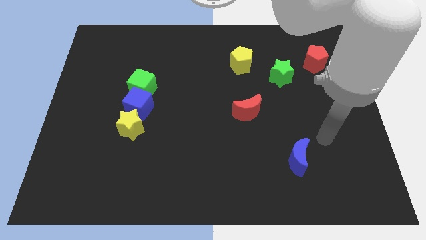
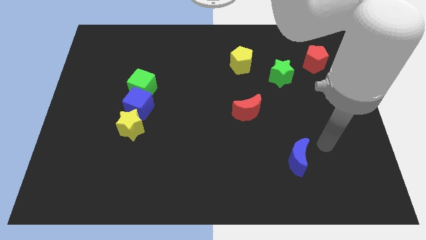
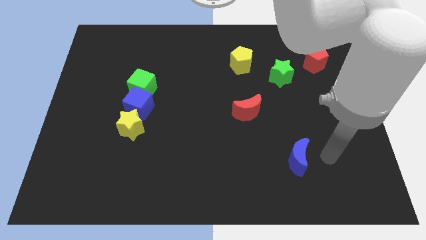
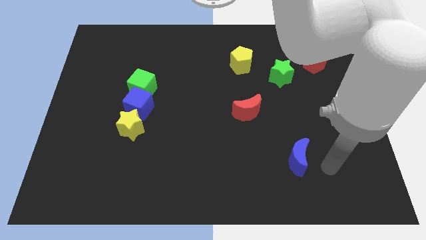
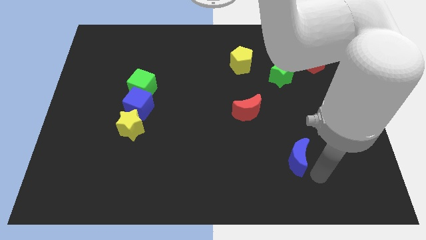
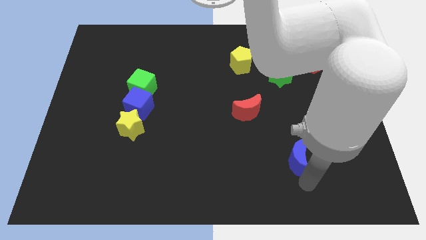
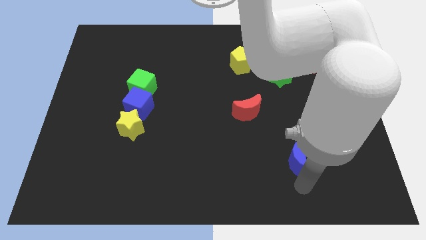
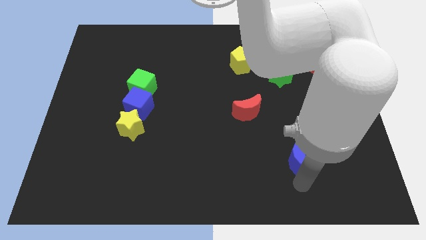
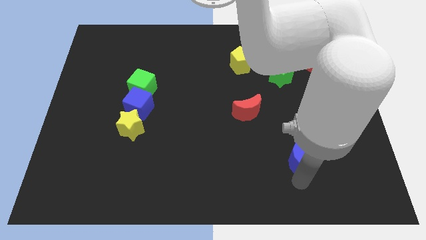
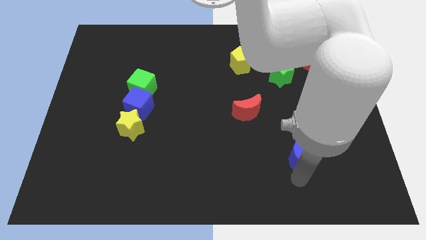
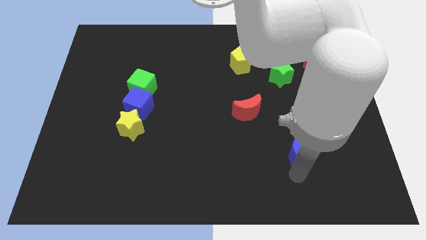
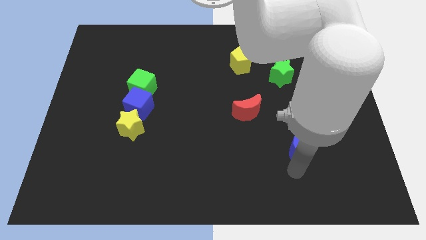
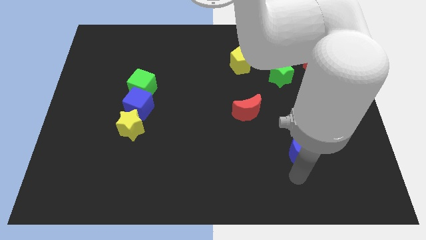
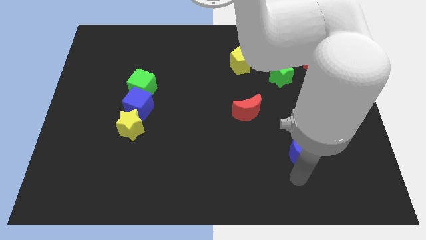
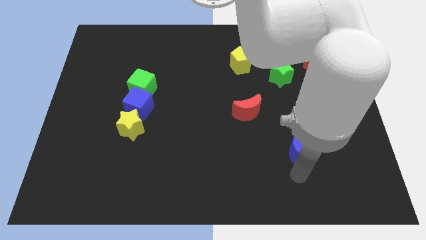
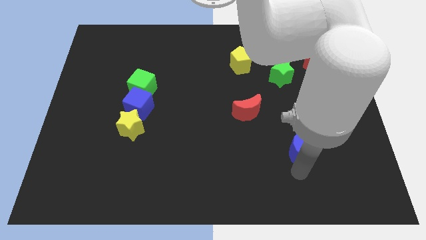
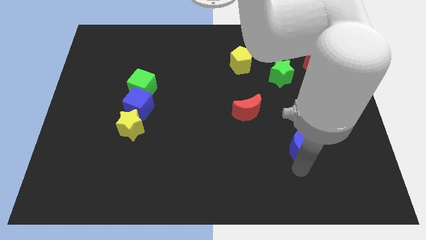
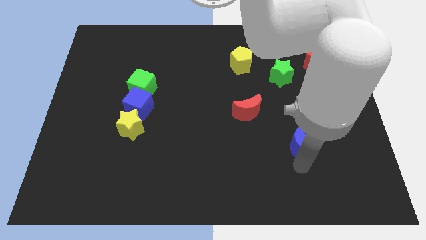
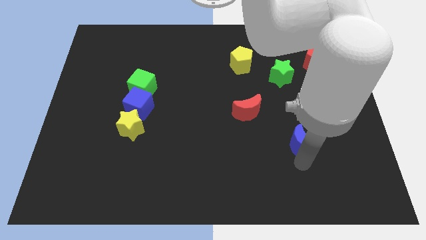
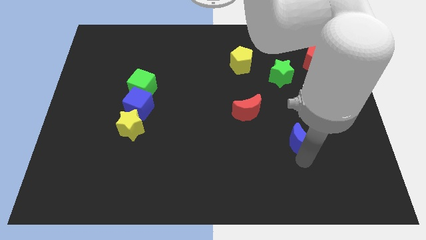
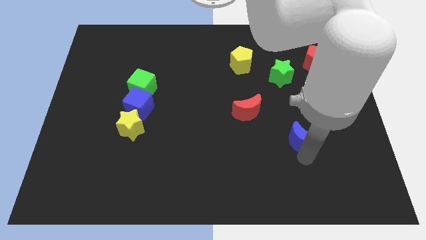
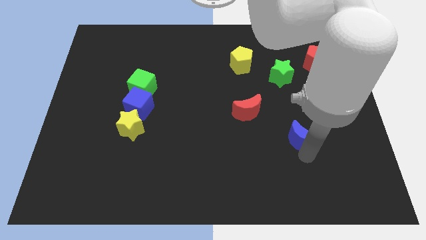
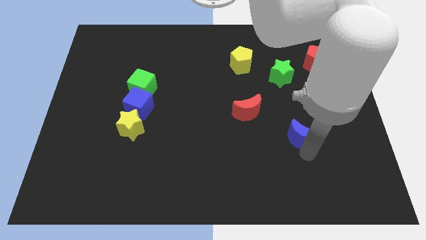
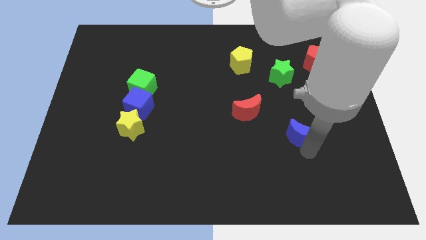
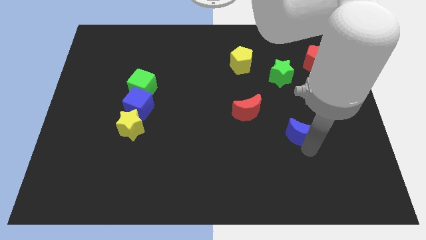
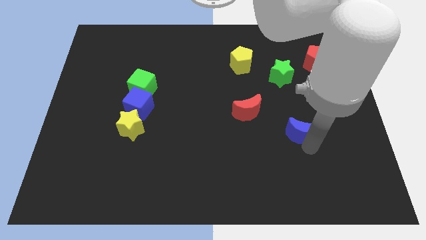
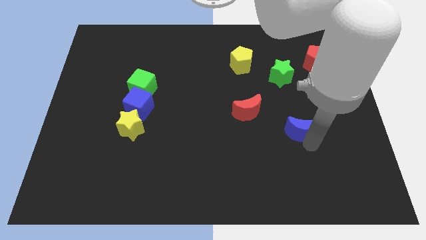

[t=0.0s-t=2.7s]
slightly push the blue moon up

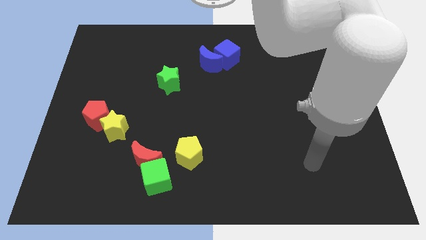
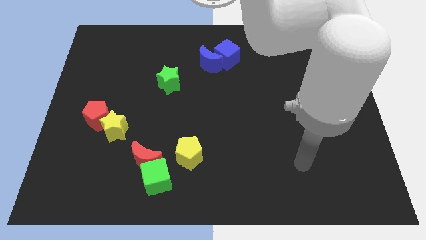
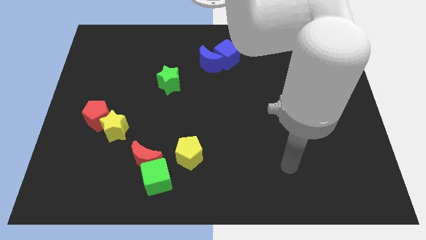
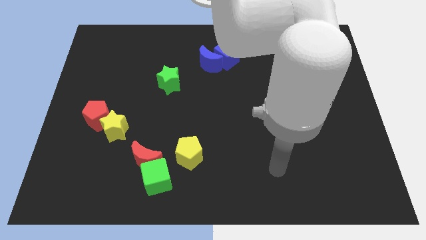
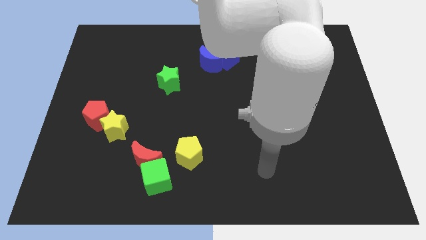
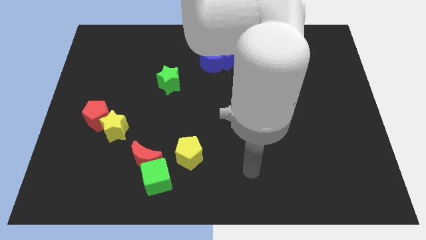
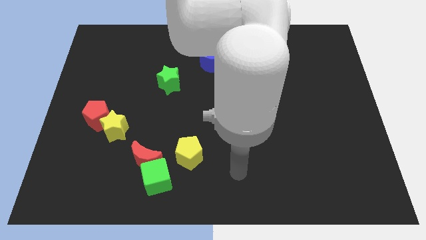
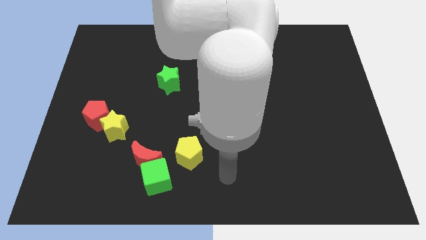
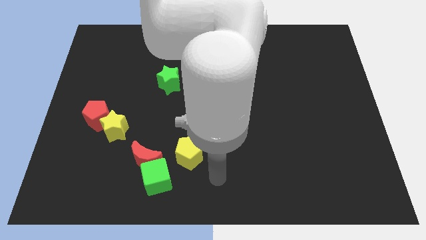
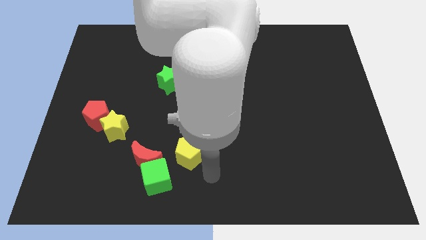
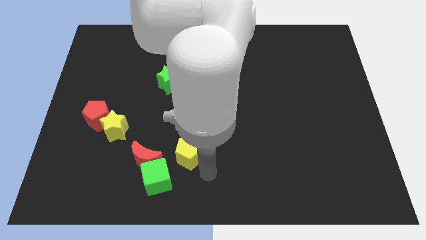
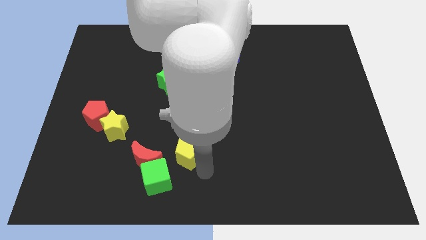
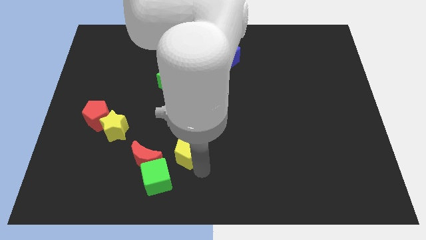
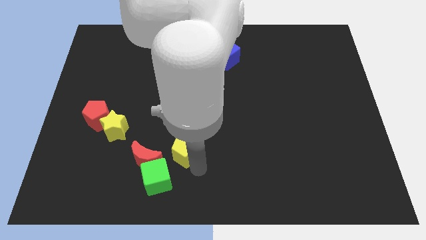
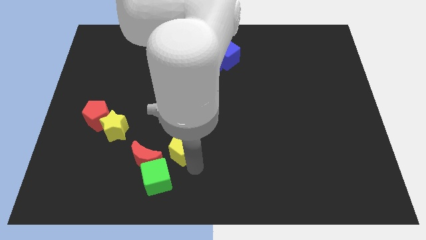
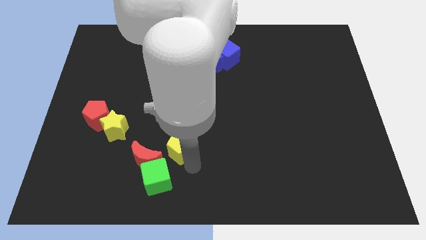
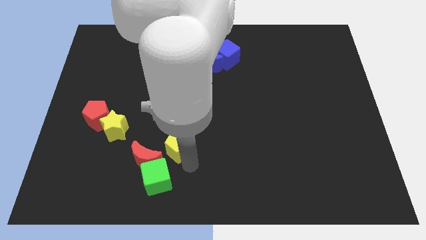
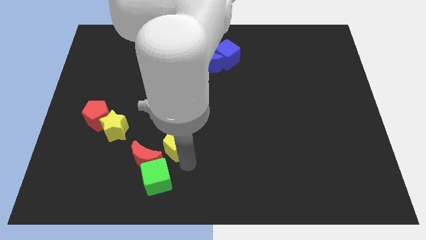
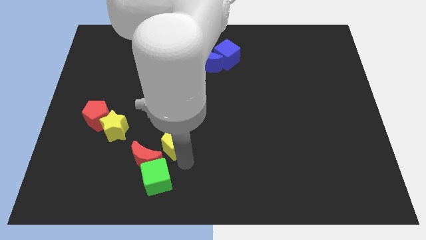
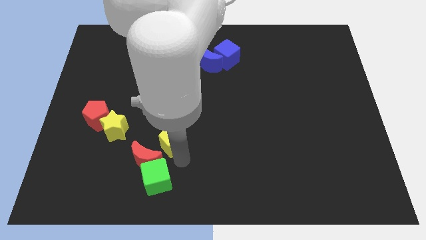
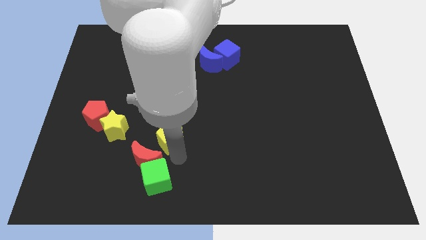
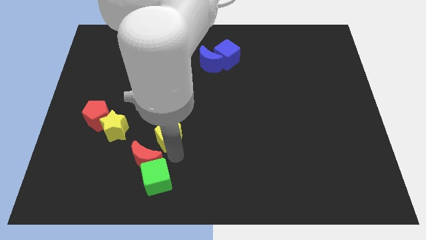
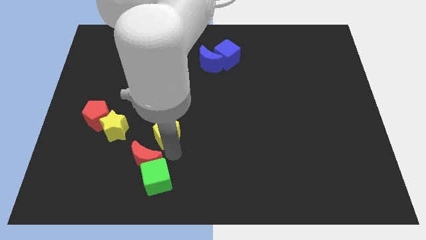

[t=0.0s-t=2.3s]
push the yellow pentagon diagonally up and left somewhat

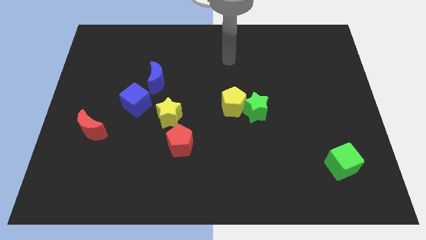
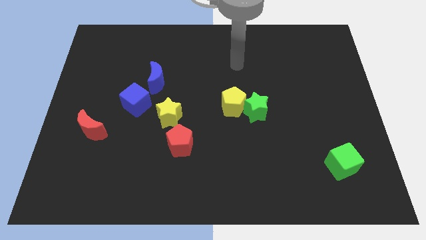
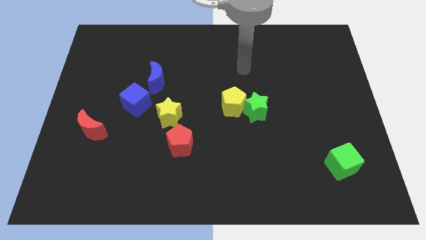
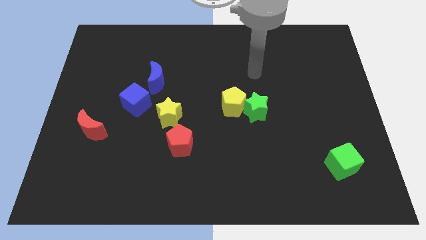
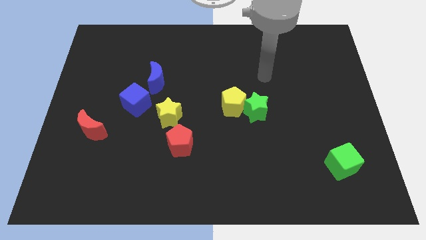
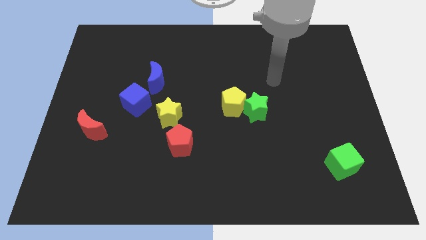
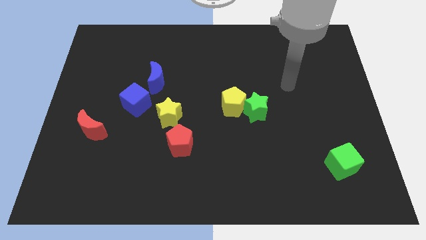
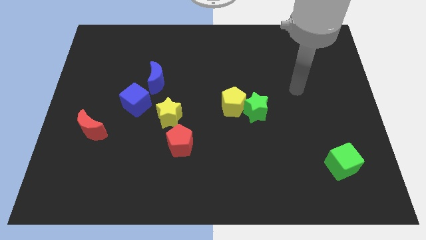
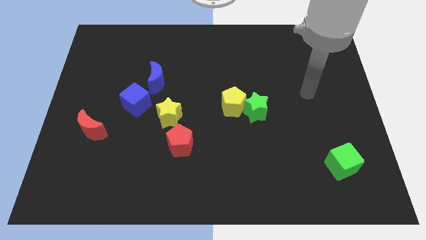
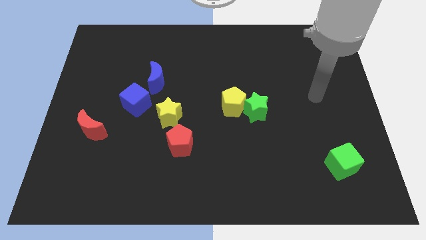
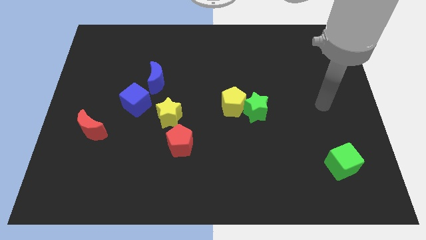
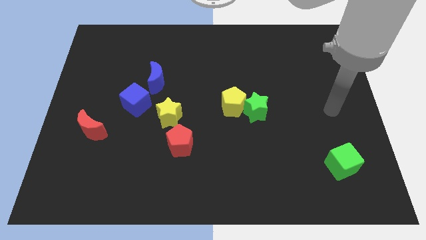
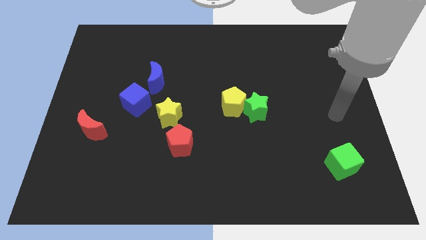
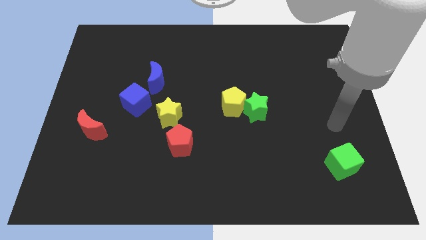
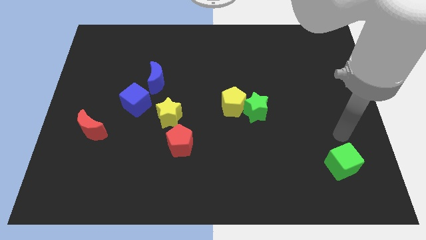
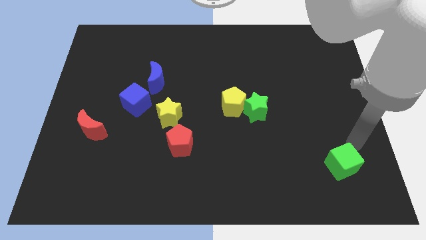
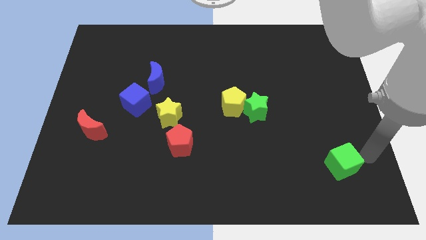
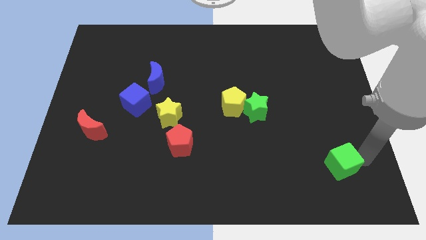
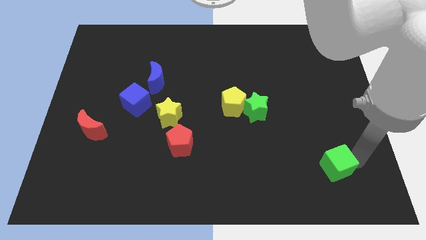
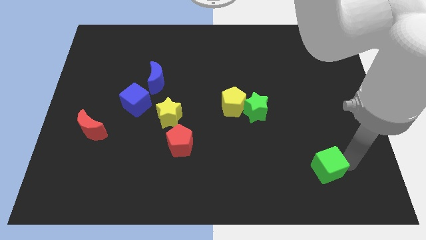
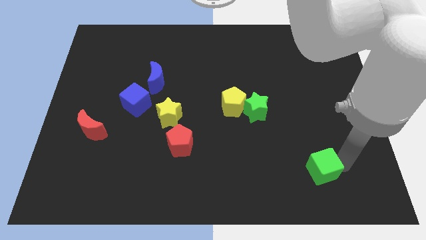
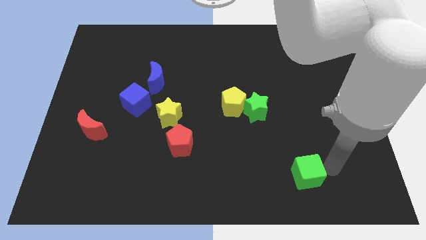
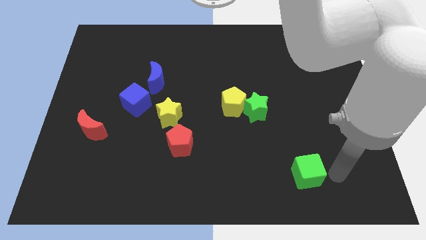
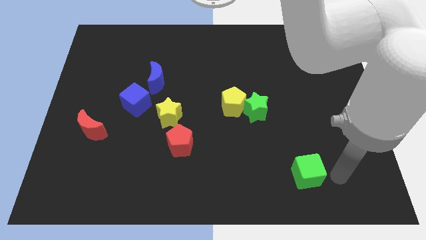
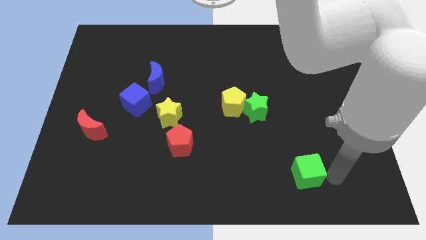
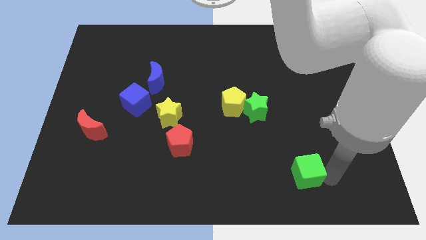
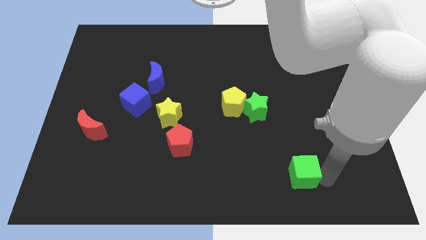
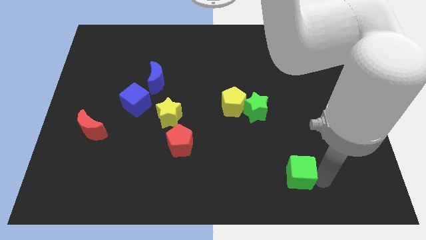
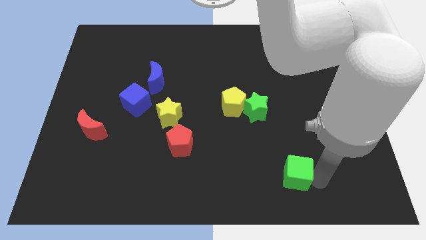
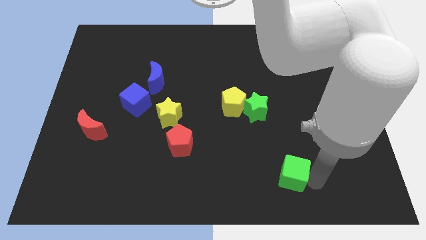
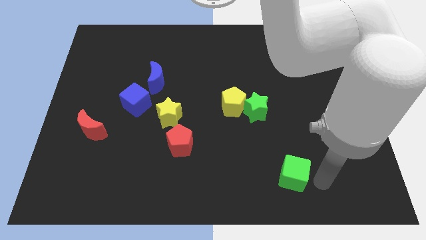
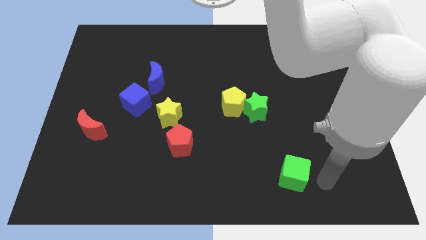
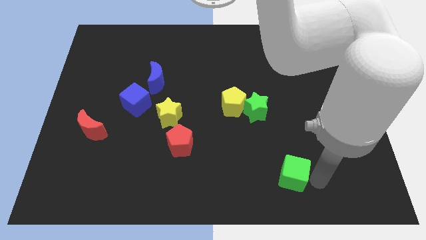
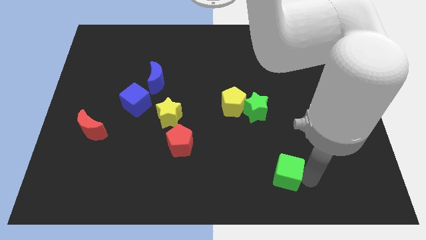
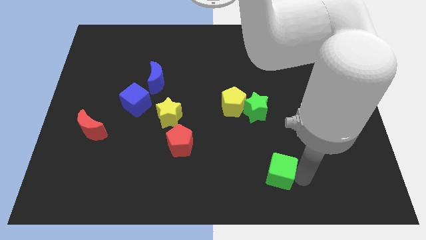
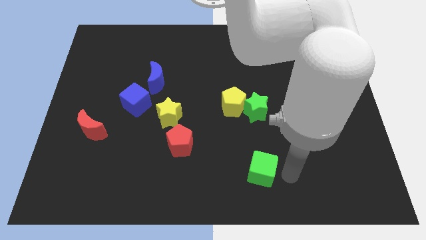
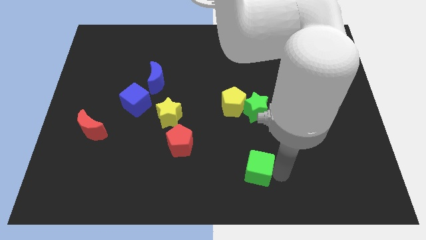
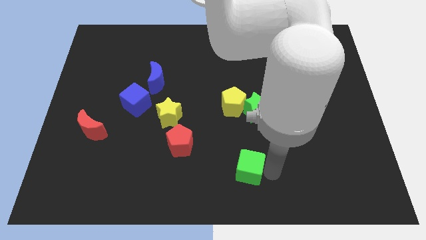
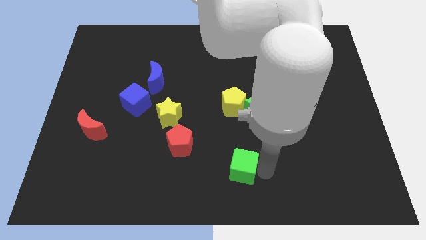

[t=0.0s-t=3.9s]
slide the green cube left
